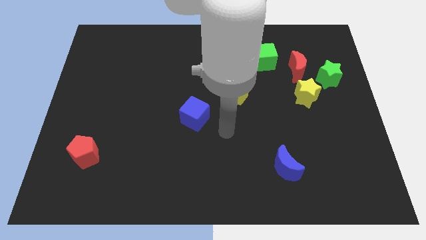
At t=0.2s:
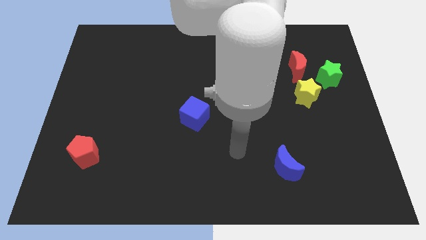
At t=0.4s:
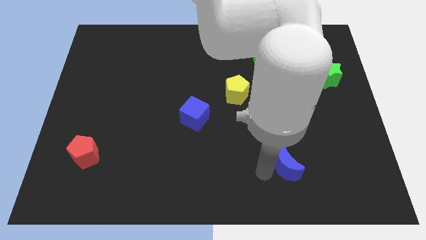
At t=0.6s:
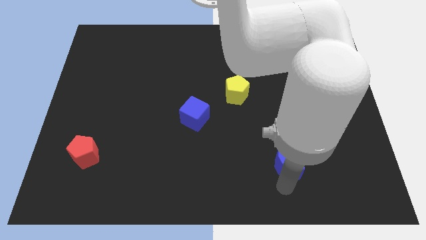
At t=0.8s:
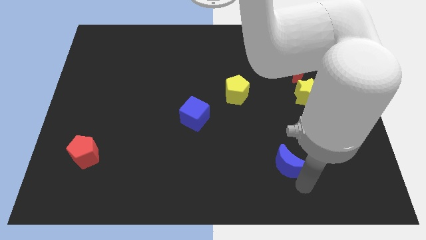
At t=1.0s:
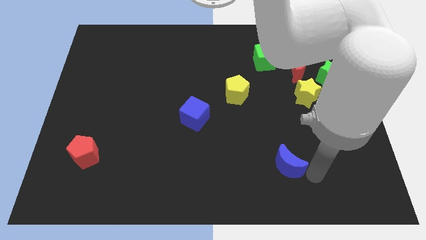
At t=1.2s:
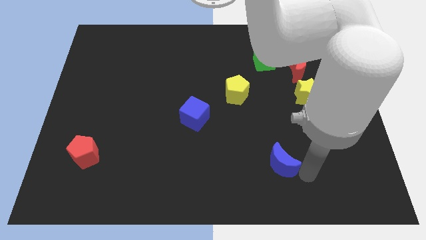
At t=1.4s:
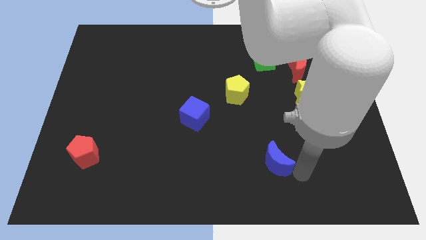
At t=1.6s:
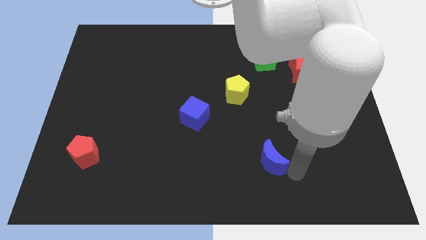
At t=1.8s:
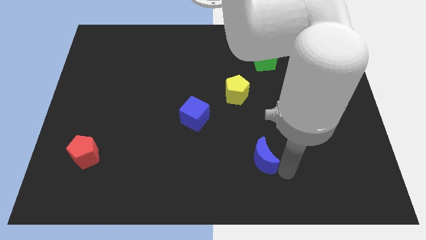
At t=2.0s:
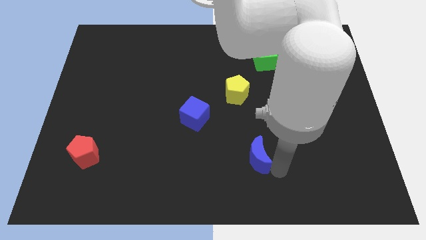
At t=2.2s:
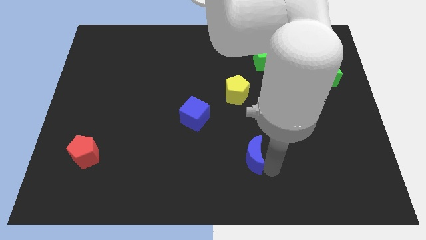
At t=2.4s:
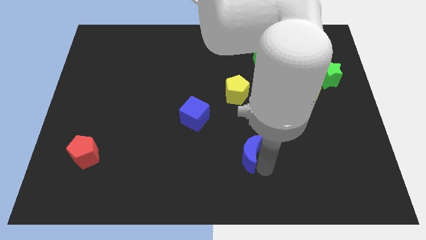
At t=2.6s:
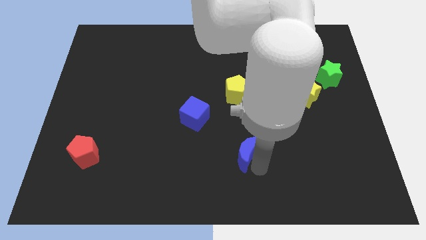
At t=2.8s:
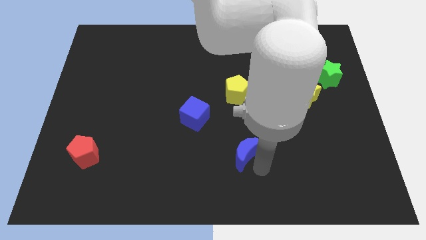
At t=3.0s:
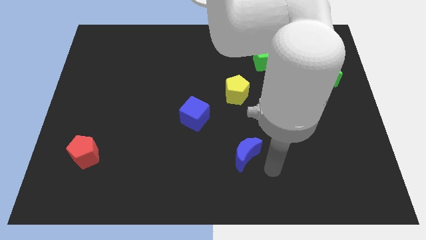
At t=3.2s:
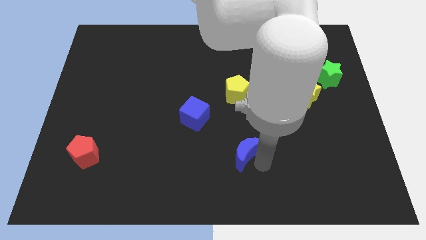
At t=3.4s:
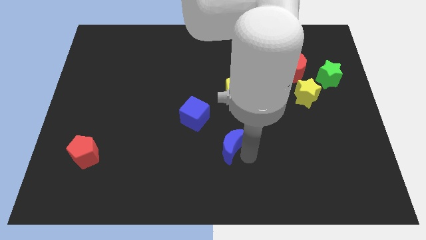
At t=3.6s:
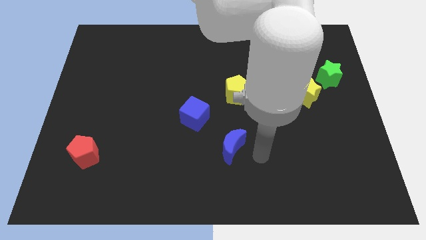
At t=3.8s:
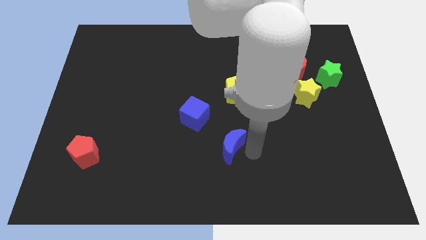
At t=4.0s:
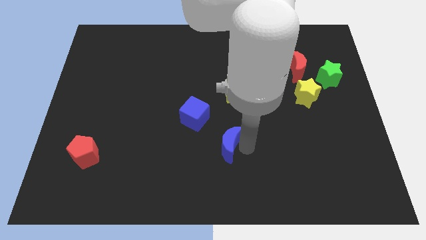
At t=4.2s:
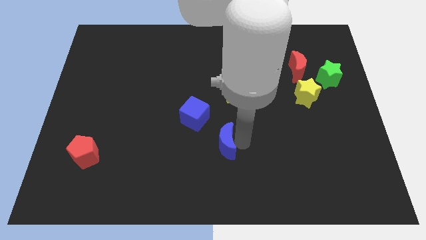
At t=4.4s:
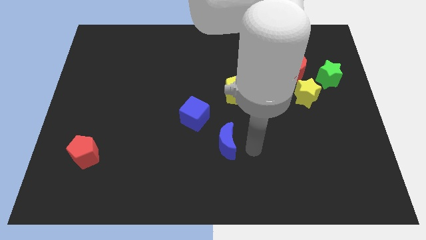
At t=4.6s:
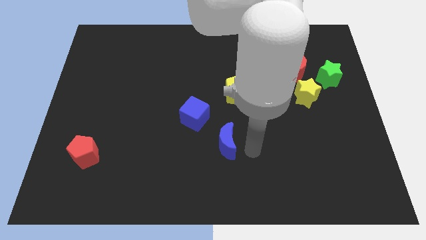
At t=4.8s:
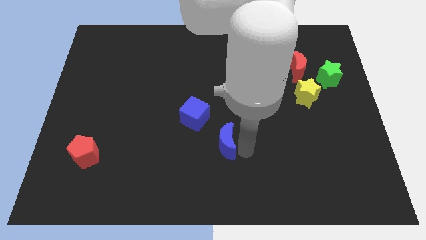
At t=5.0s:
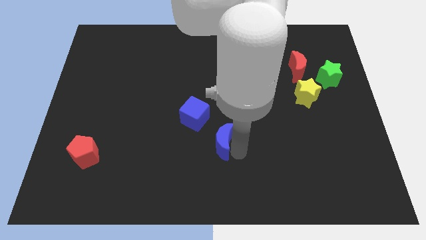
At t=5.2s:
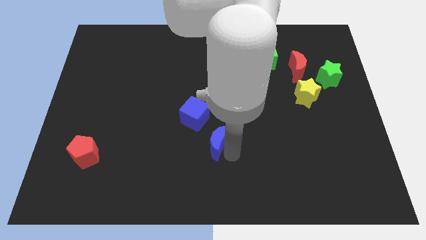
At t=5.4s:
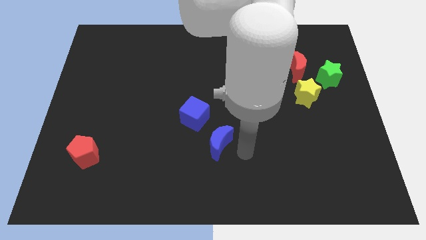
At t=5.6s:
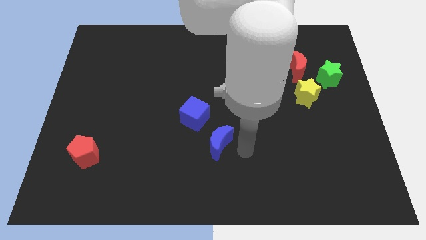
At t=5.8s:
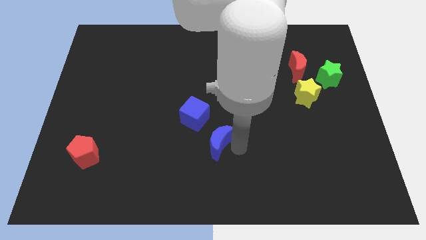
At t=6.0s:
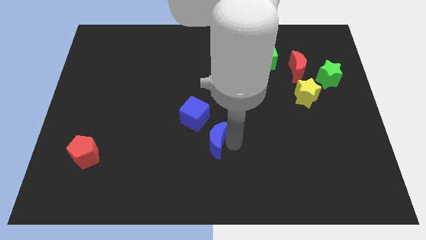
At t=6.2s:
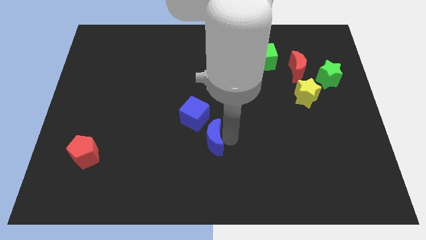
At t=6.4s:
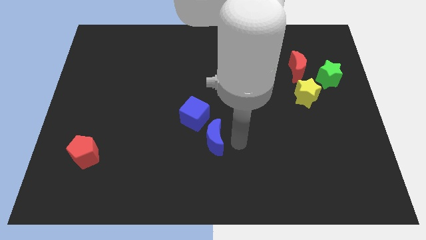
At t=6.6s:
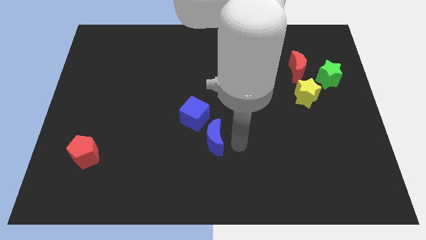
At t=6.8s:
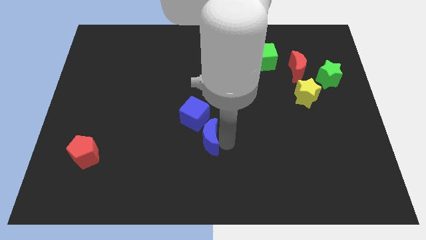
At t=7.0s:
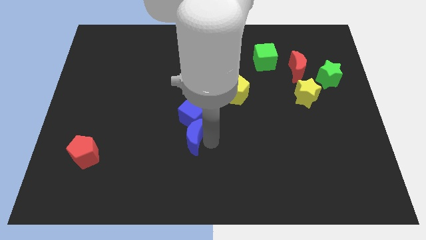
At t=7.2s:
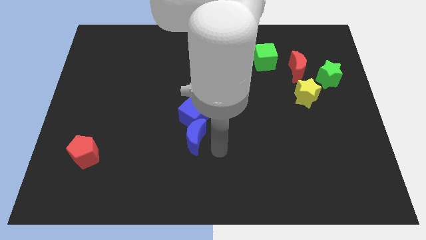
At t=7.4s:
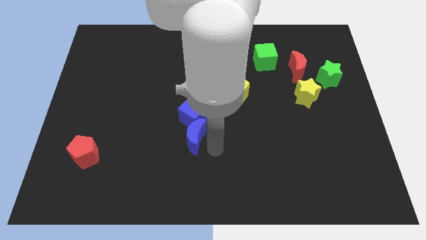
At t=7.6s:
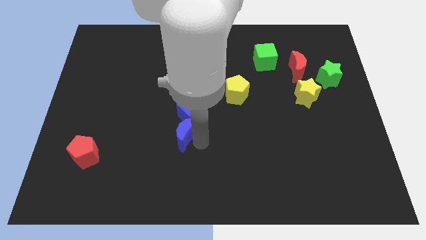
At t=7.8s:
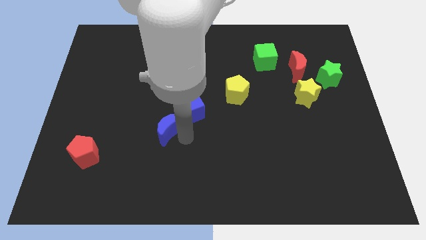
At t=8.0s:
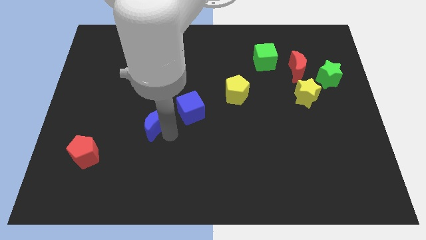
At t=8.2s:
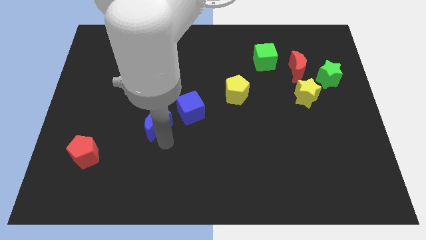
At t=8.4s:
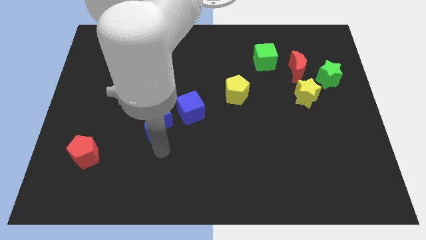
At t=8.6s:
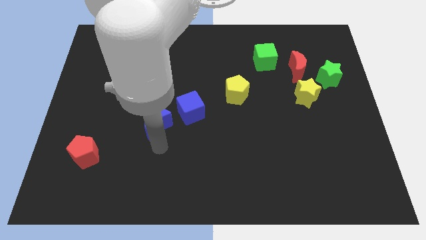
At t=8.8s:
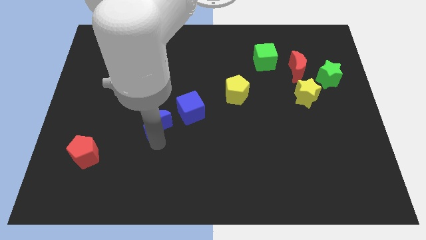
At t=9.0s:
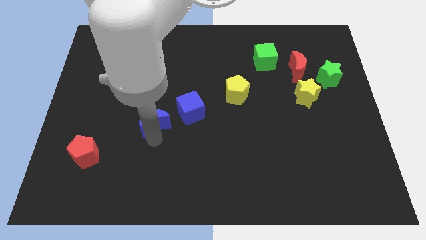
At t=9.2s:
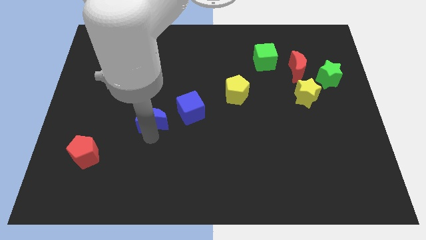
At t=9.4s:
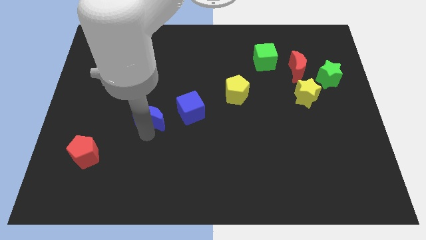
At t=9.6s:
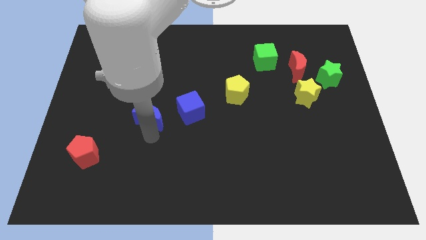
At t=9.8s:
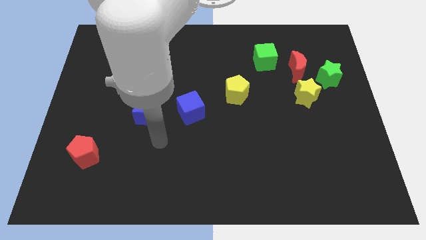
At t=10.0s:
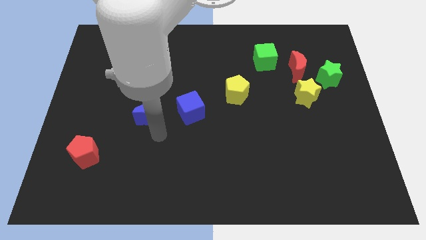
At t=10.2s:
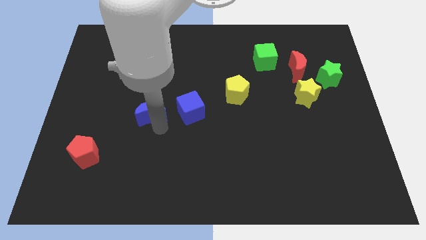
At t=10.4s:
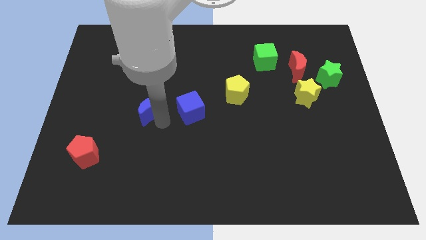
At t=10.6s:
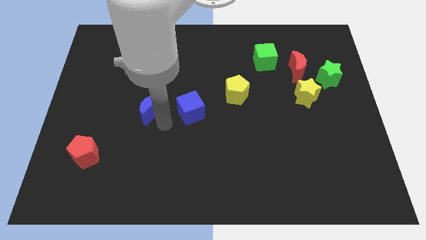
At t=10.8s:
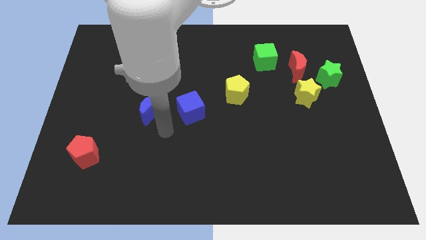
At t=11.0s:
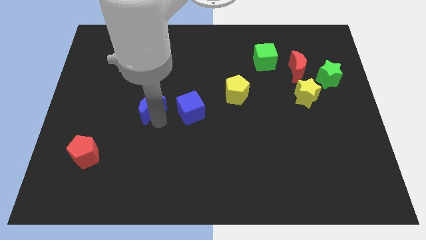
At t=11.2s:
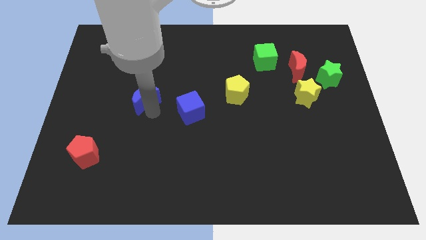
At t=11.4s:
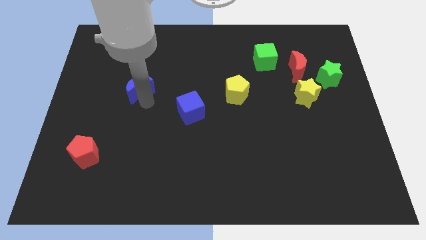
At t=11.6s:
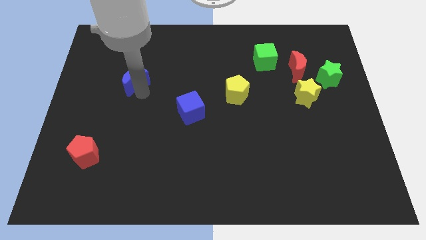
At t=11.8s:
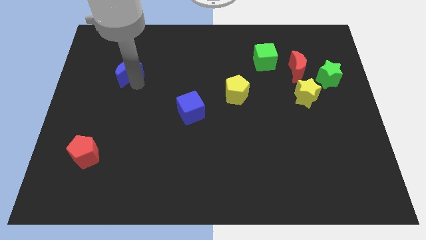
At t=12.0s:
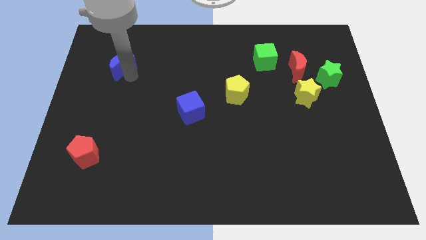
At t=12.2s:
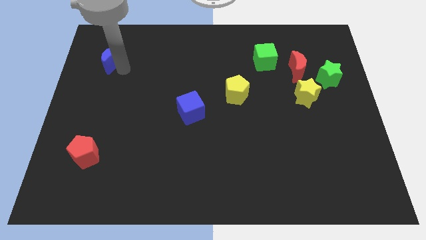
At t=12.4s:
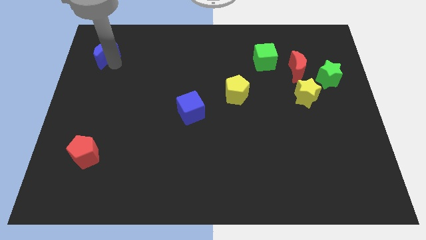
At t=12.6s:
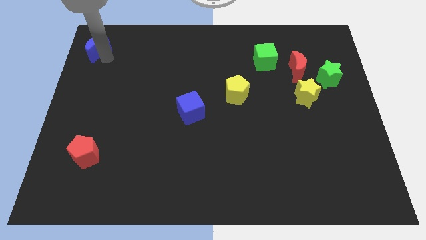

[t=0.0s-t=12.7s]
push the blue moon to the top left
